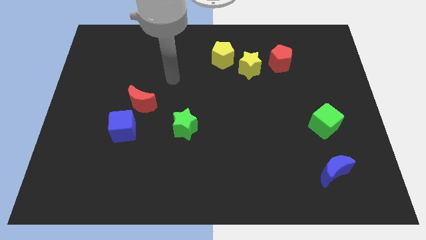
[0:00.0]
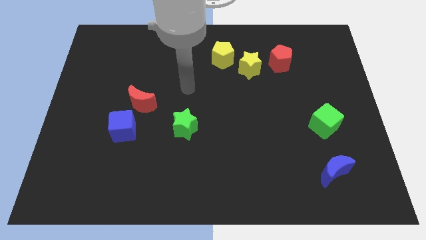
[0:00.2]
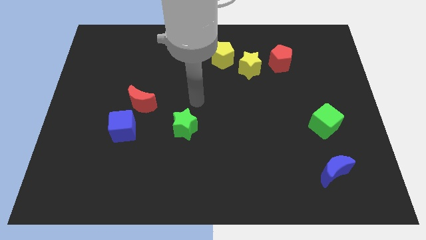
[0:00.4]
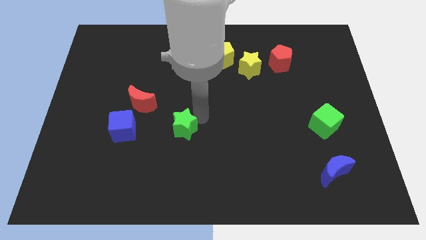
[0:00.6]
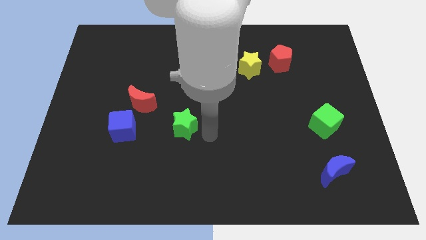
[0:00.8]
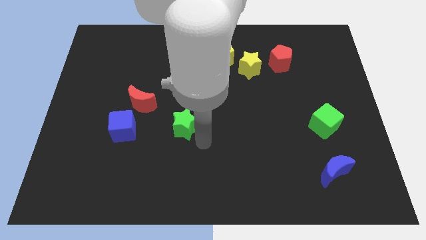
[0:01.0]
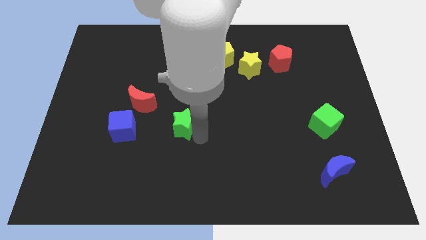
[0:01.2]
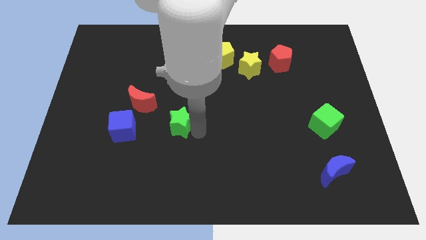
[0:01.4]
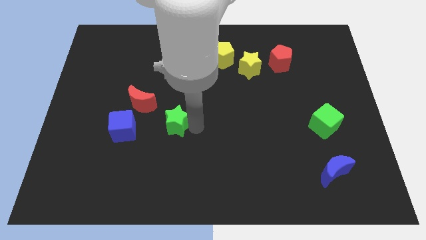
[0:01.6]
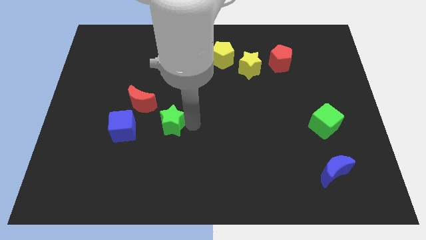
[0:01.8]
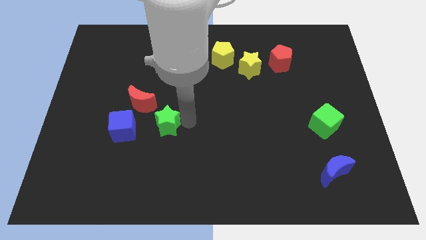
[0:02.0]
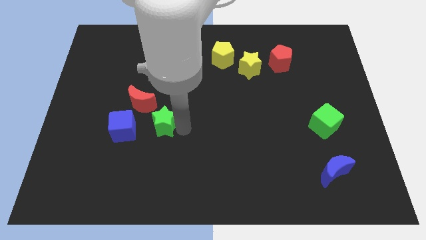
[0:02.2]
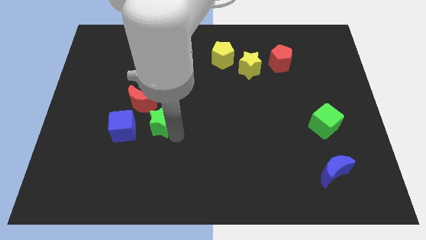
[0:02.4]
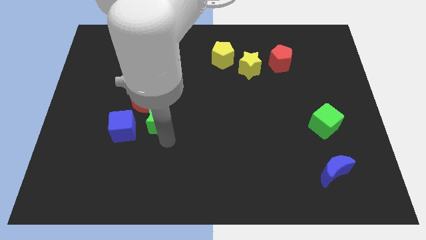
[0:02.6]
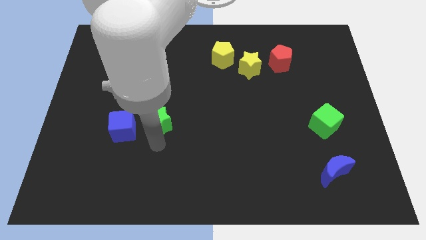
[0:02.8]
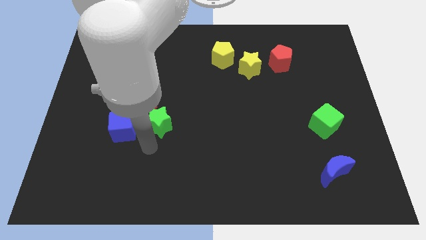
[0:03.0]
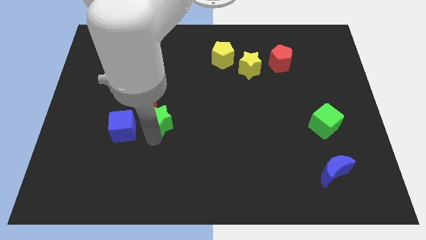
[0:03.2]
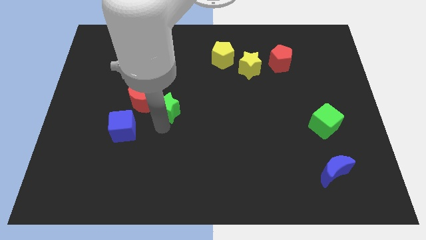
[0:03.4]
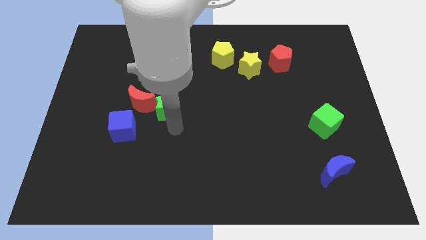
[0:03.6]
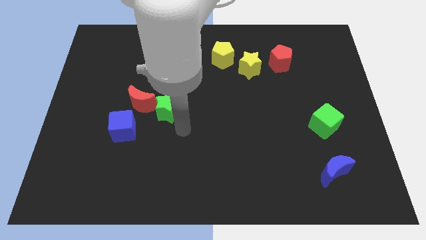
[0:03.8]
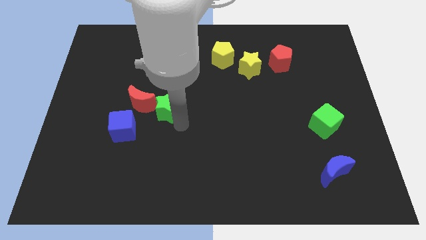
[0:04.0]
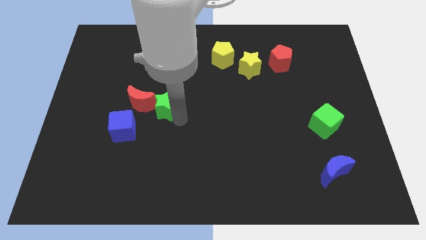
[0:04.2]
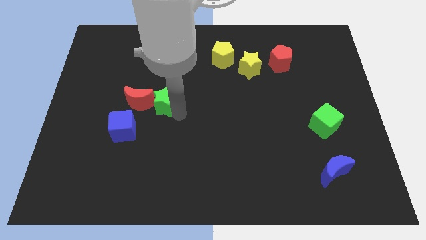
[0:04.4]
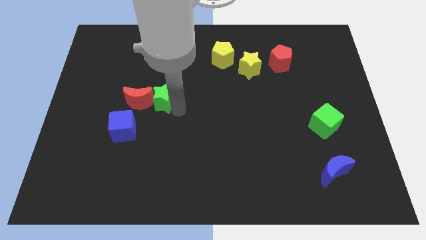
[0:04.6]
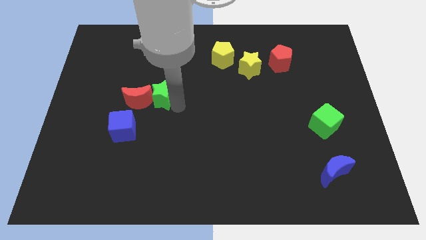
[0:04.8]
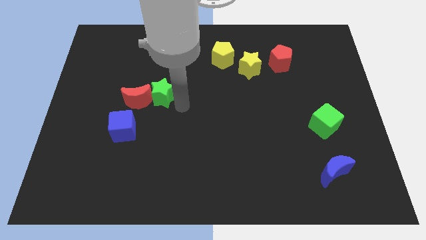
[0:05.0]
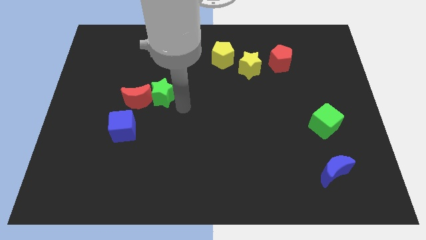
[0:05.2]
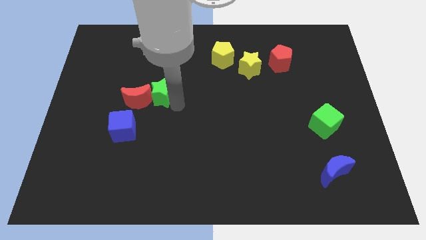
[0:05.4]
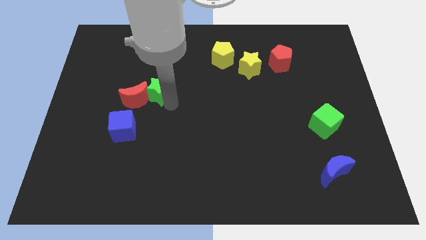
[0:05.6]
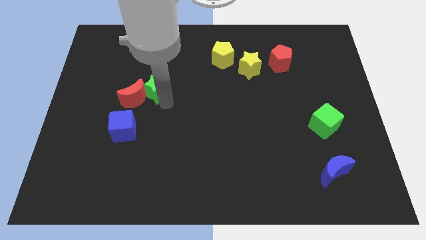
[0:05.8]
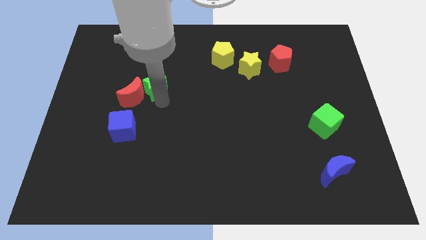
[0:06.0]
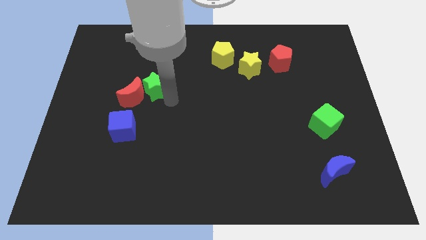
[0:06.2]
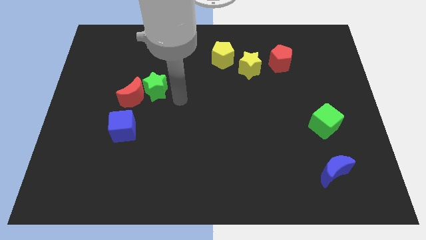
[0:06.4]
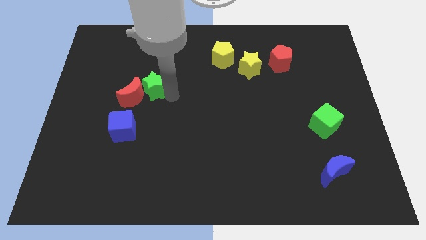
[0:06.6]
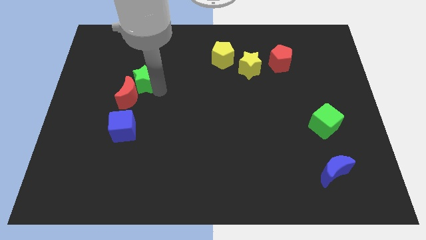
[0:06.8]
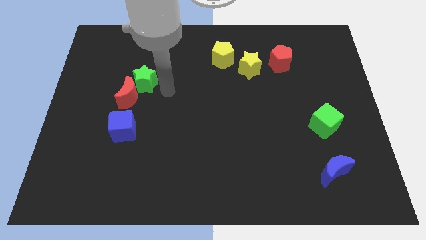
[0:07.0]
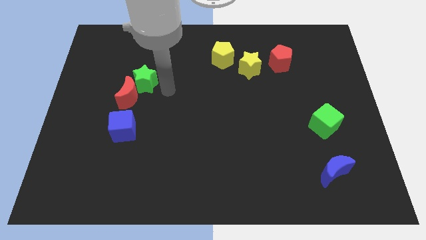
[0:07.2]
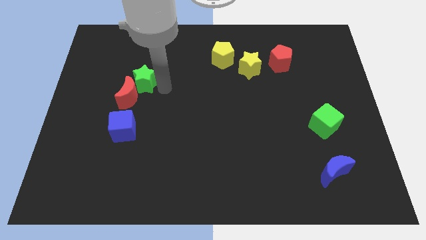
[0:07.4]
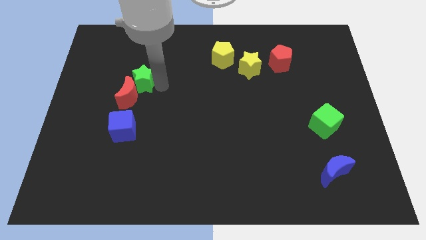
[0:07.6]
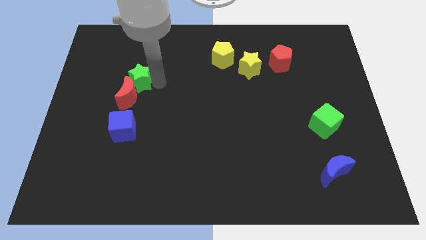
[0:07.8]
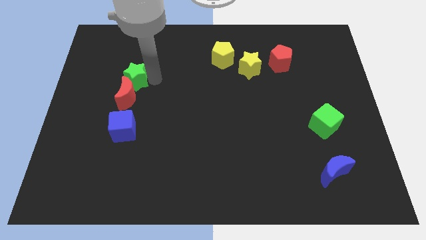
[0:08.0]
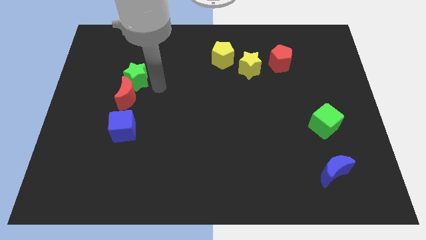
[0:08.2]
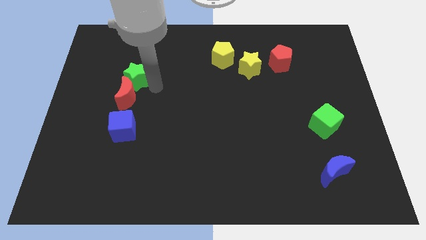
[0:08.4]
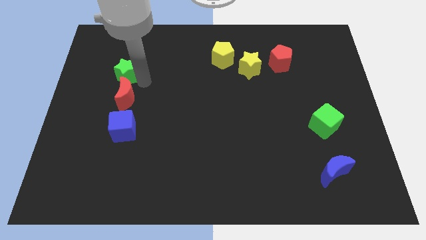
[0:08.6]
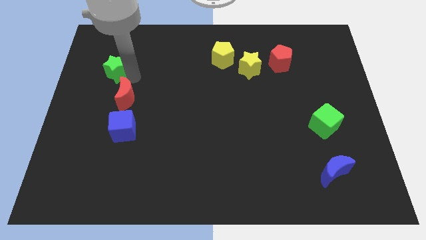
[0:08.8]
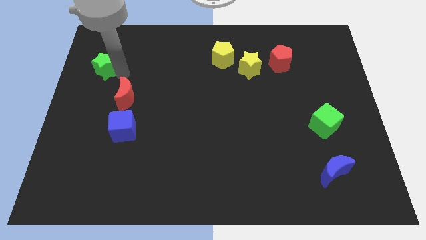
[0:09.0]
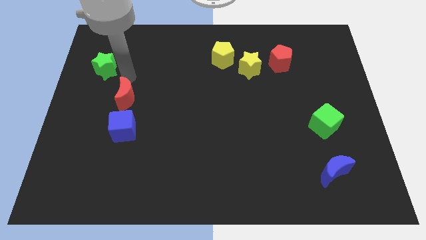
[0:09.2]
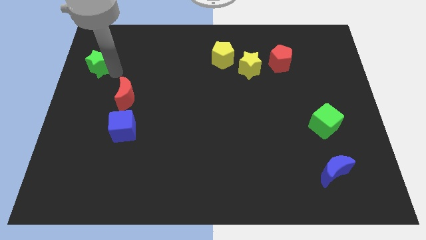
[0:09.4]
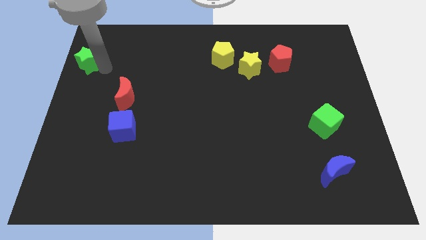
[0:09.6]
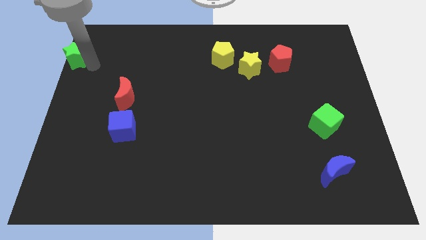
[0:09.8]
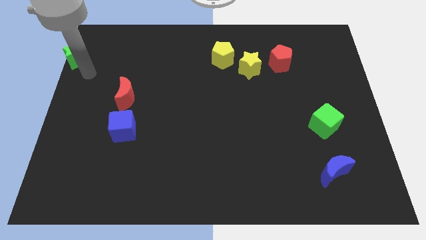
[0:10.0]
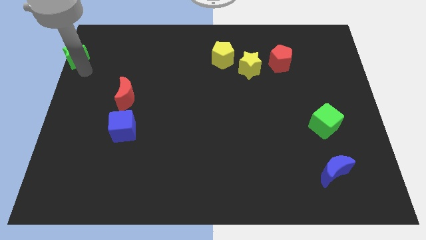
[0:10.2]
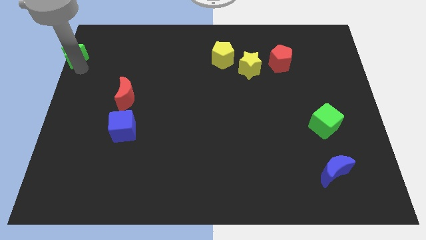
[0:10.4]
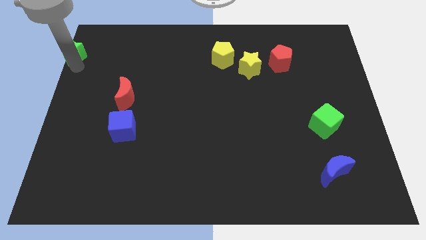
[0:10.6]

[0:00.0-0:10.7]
push the green star to the top left corner

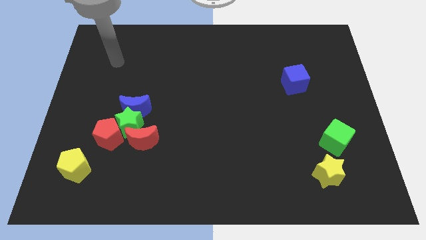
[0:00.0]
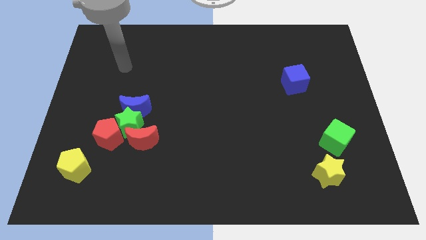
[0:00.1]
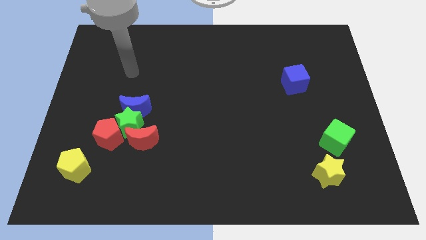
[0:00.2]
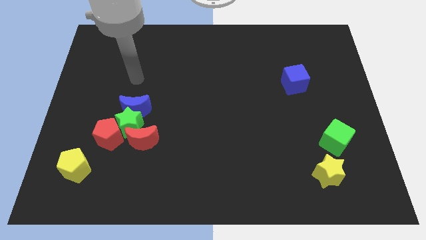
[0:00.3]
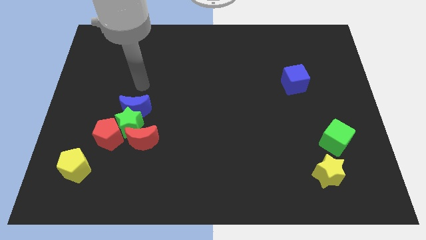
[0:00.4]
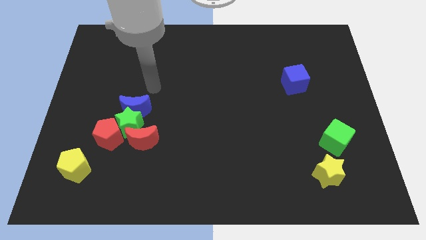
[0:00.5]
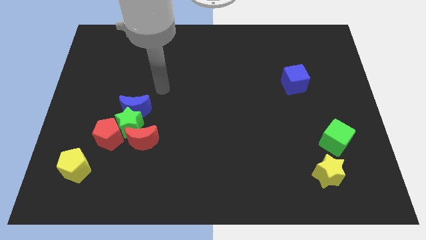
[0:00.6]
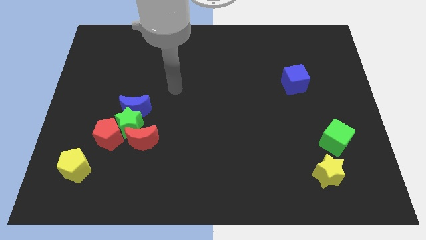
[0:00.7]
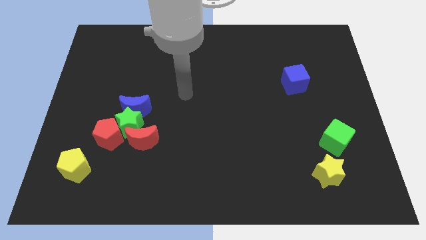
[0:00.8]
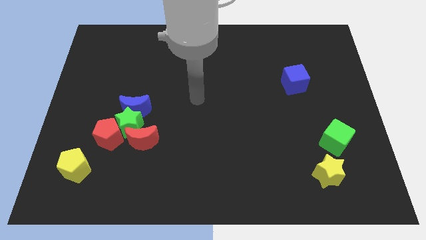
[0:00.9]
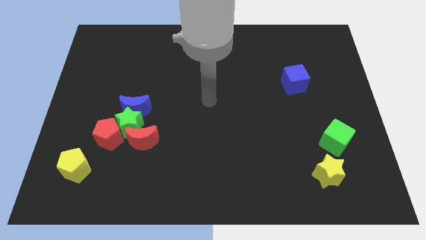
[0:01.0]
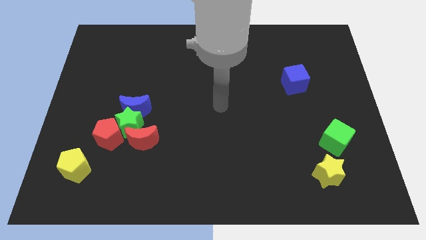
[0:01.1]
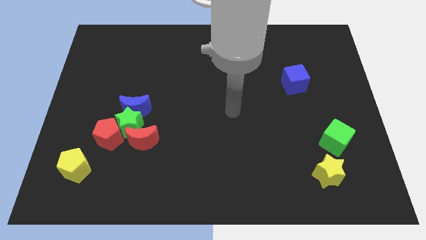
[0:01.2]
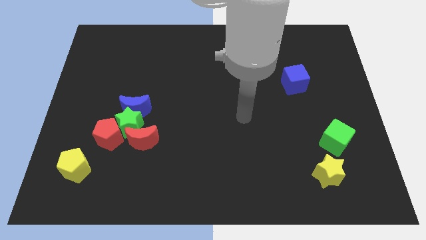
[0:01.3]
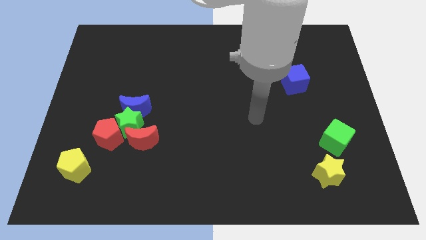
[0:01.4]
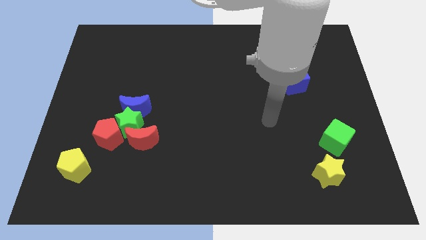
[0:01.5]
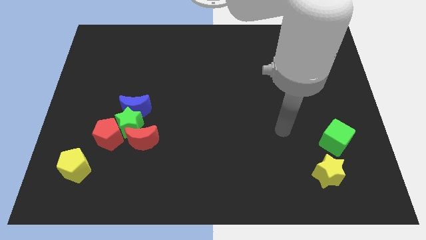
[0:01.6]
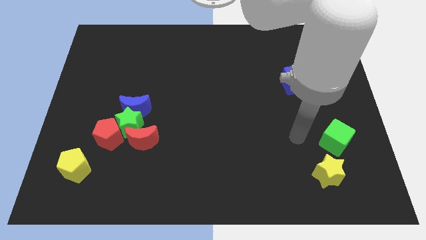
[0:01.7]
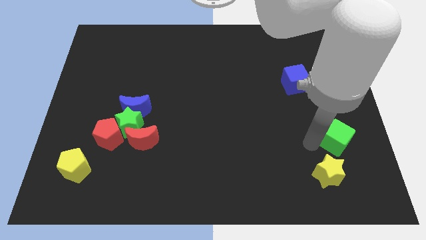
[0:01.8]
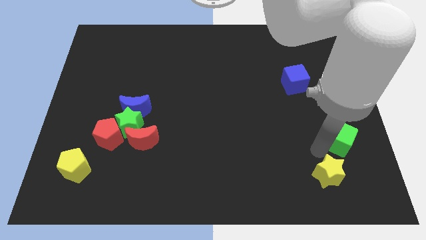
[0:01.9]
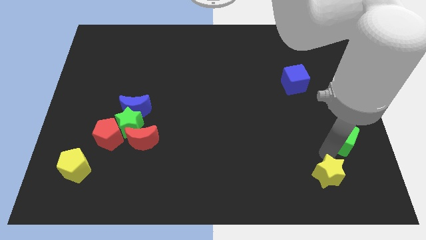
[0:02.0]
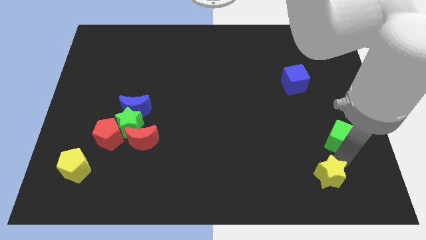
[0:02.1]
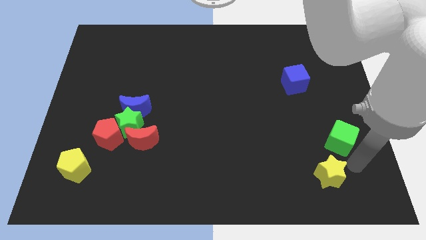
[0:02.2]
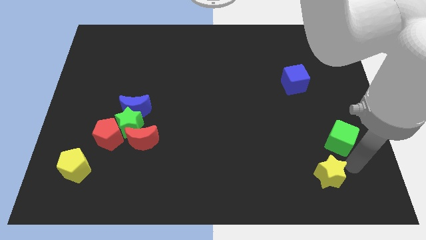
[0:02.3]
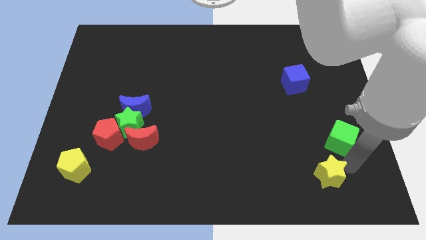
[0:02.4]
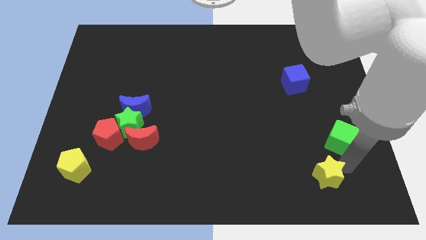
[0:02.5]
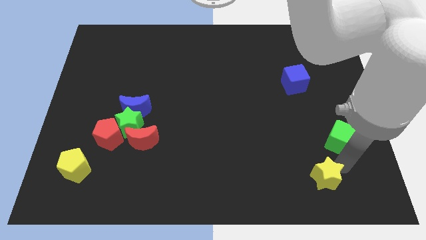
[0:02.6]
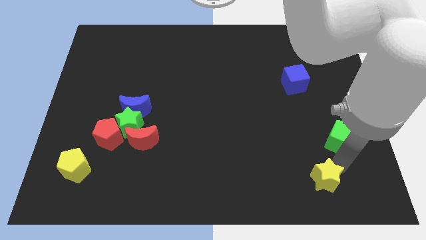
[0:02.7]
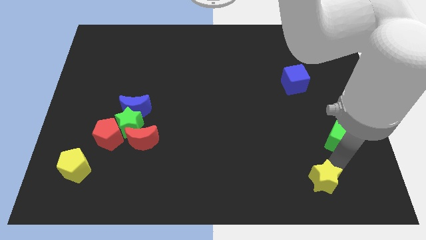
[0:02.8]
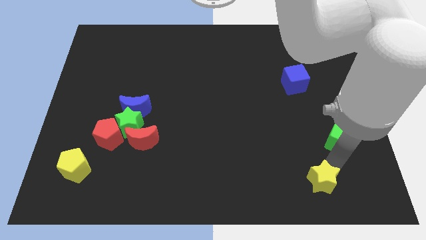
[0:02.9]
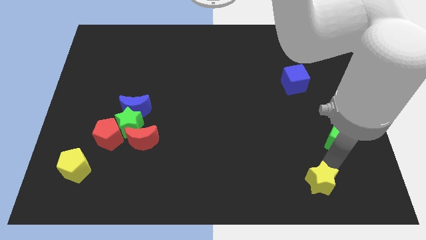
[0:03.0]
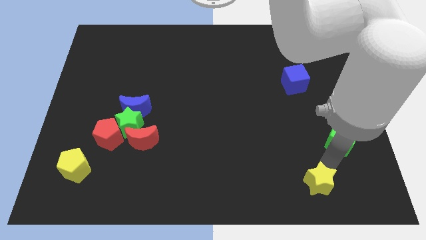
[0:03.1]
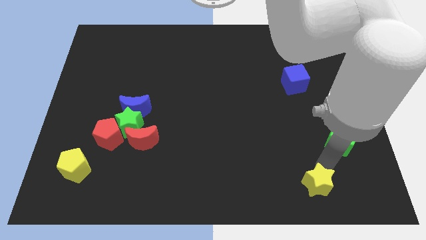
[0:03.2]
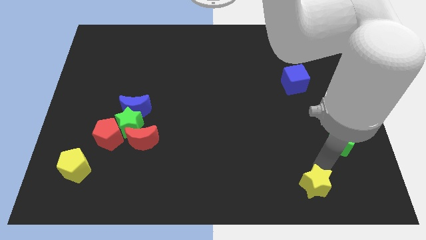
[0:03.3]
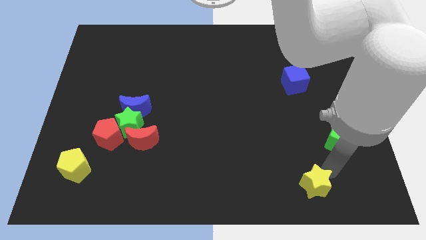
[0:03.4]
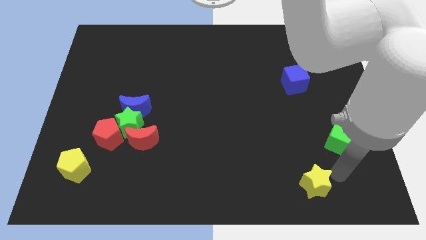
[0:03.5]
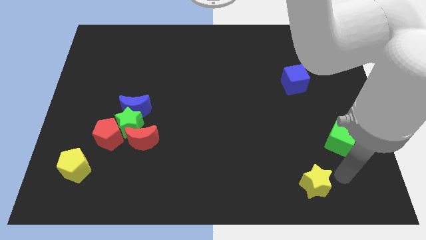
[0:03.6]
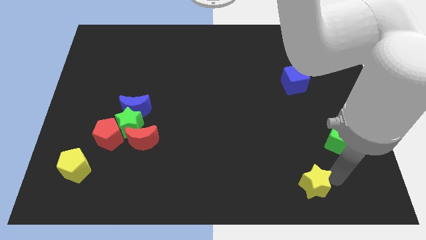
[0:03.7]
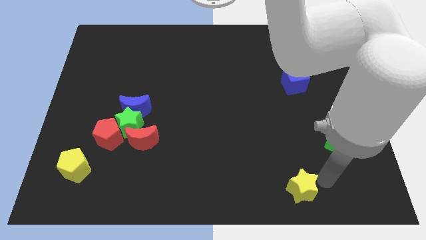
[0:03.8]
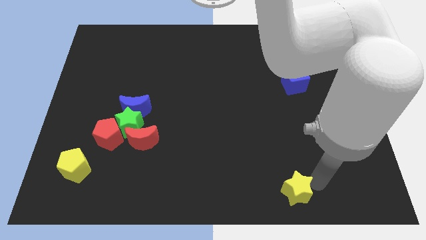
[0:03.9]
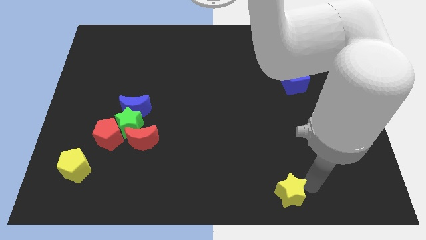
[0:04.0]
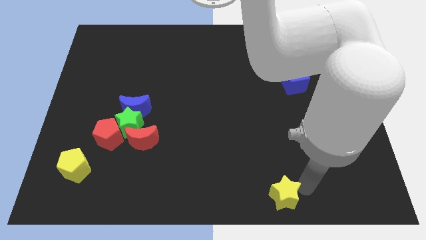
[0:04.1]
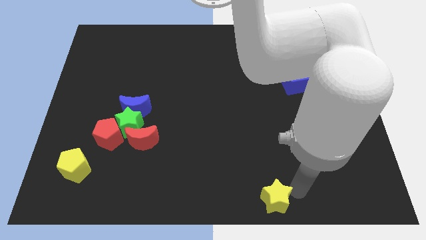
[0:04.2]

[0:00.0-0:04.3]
slide the yellow star to the bottom
